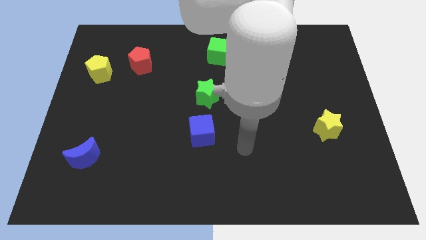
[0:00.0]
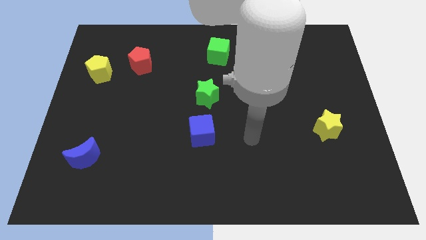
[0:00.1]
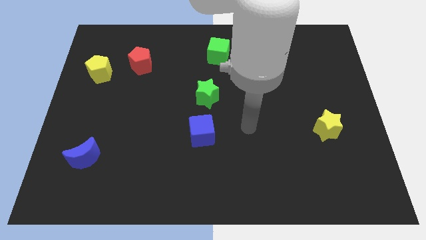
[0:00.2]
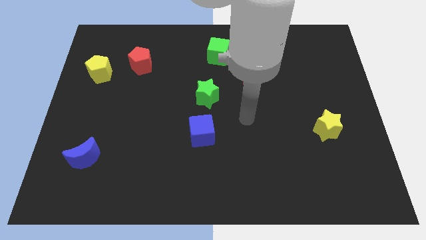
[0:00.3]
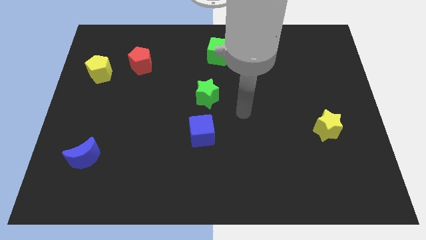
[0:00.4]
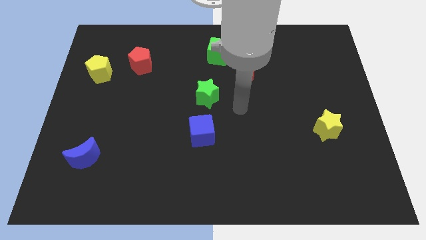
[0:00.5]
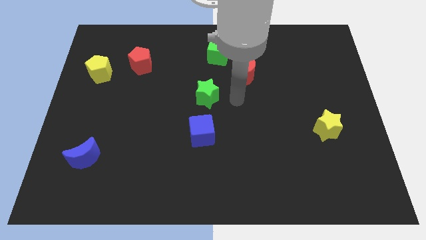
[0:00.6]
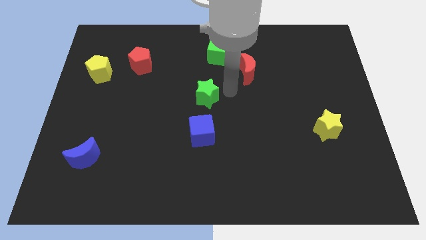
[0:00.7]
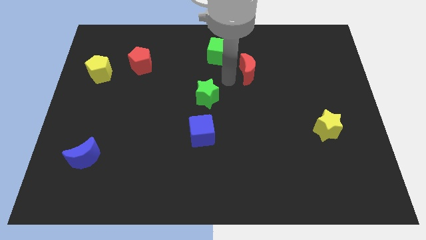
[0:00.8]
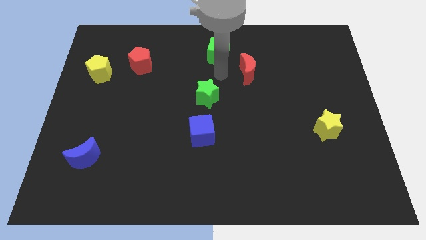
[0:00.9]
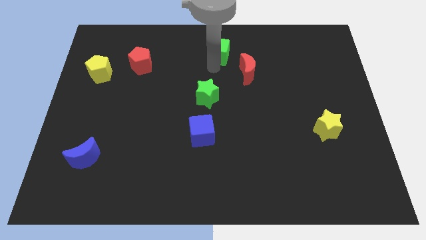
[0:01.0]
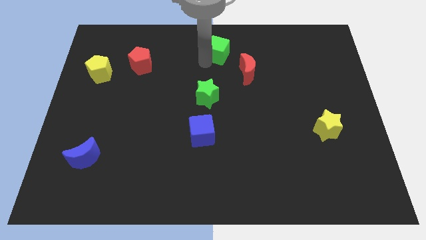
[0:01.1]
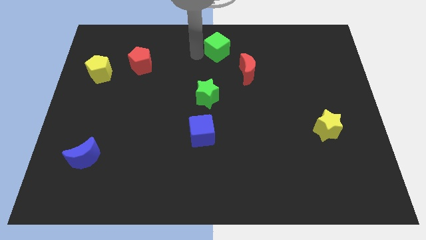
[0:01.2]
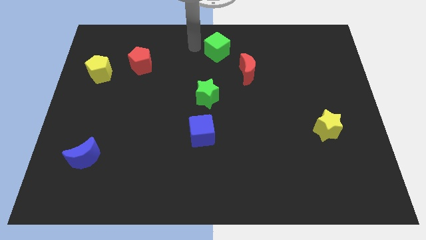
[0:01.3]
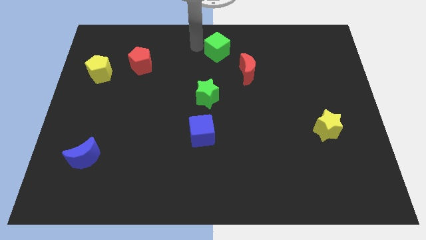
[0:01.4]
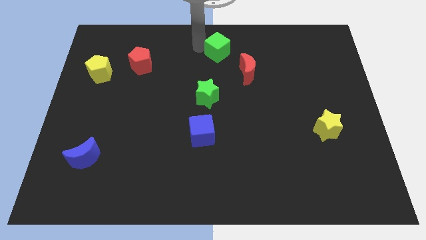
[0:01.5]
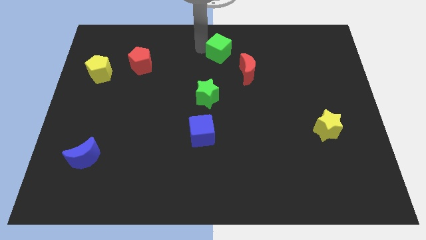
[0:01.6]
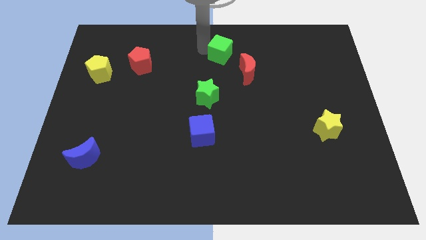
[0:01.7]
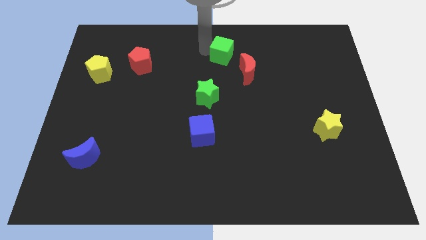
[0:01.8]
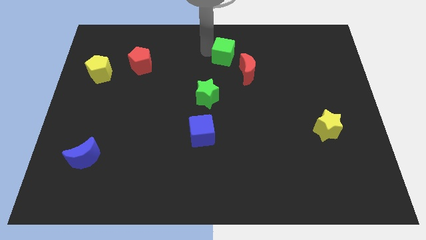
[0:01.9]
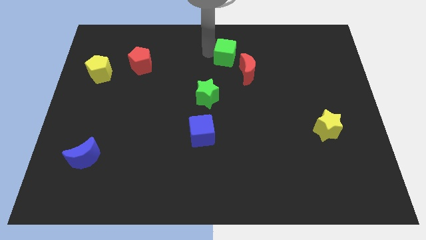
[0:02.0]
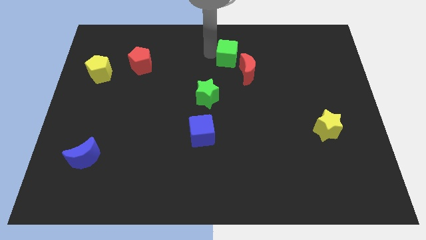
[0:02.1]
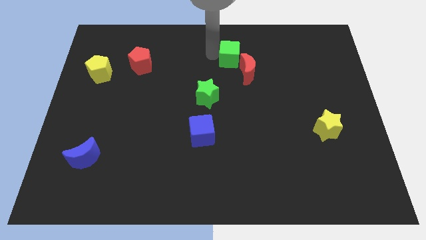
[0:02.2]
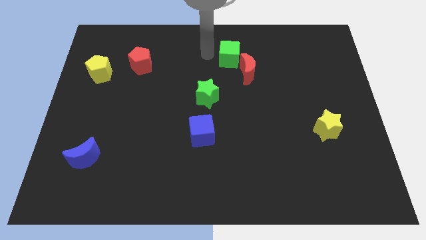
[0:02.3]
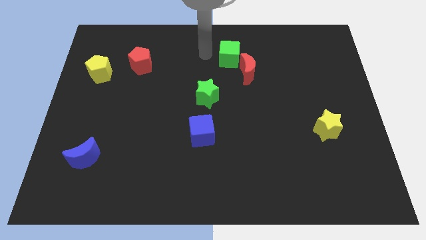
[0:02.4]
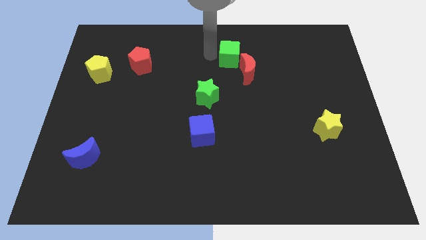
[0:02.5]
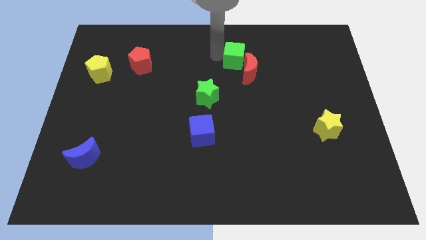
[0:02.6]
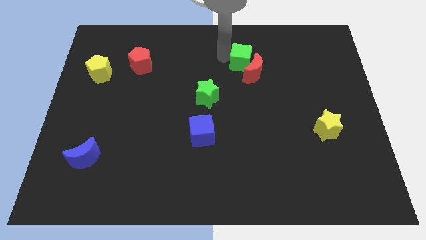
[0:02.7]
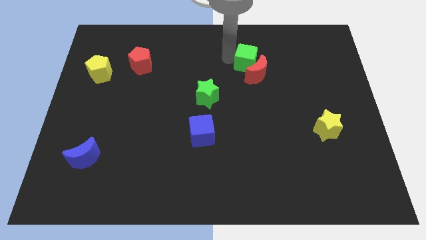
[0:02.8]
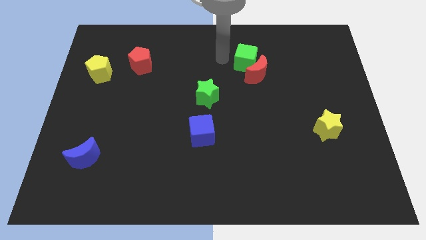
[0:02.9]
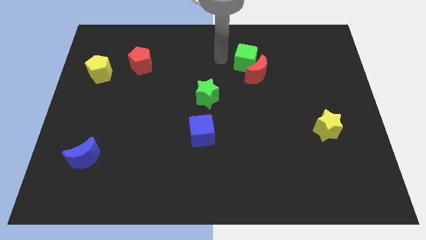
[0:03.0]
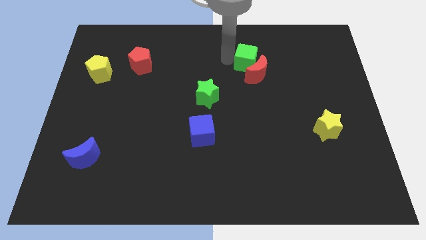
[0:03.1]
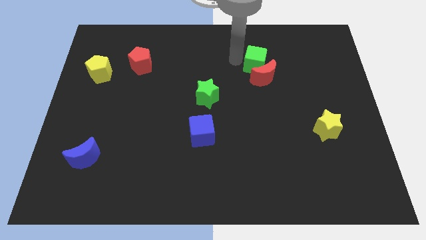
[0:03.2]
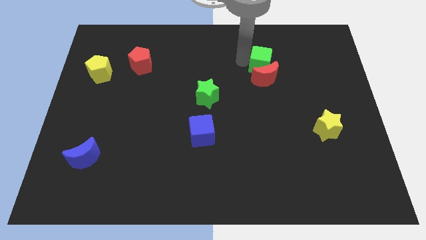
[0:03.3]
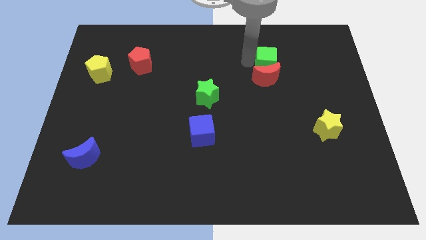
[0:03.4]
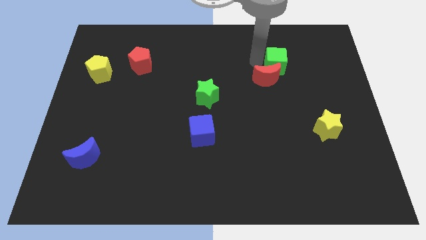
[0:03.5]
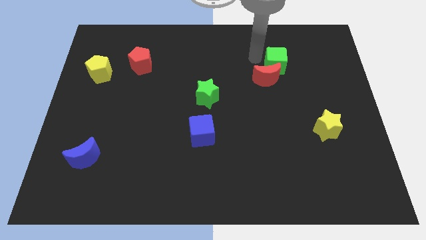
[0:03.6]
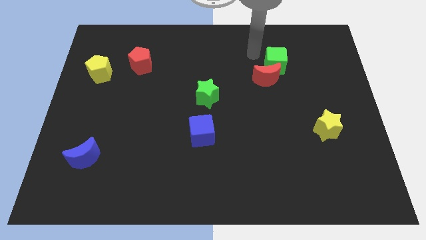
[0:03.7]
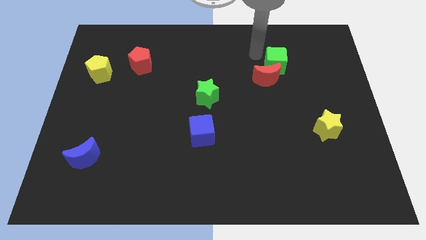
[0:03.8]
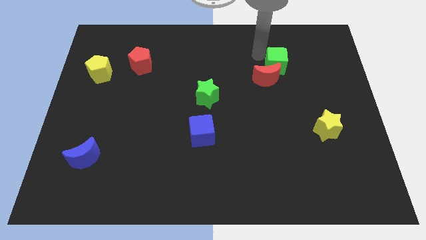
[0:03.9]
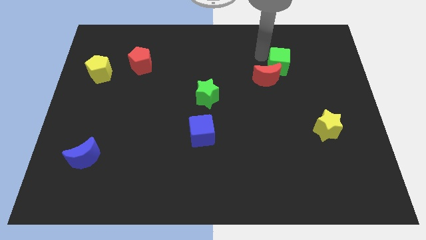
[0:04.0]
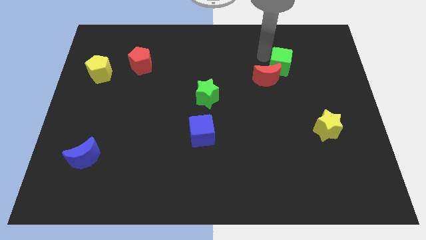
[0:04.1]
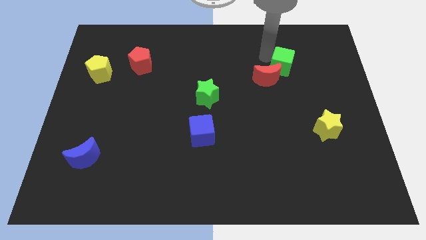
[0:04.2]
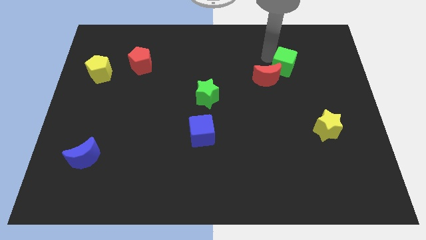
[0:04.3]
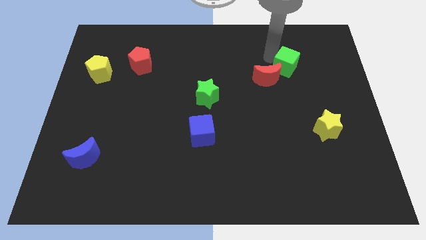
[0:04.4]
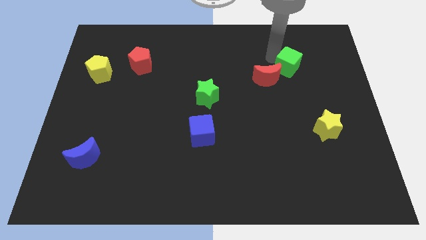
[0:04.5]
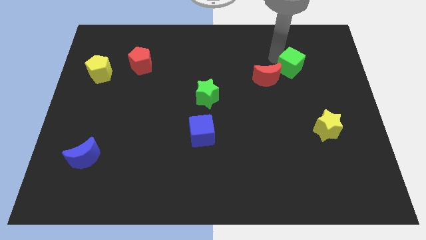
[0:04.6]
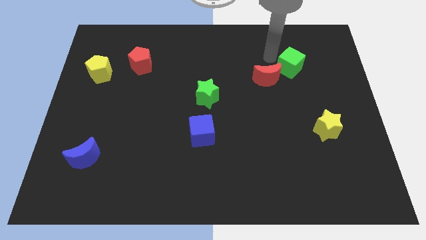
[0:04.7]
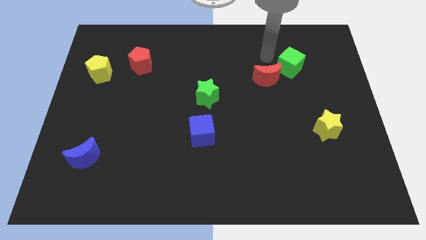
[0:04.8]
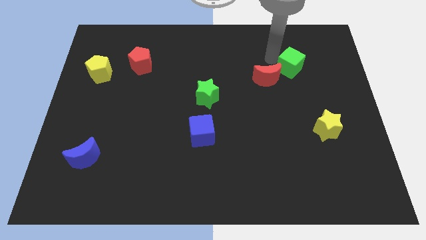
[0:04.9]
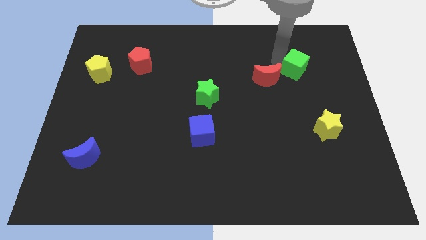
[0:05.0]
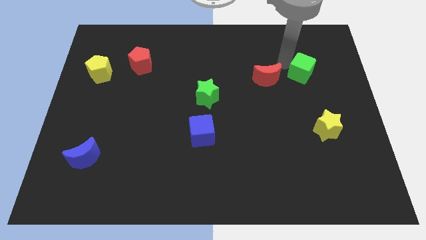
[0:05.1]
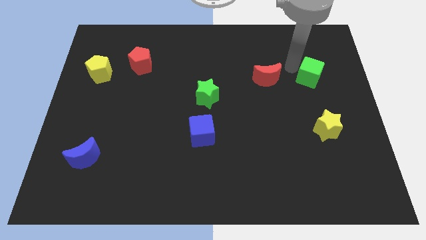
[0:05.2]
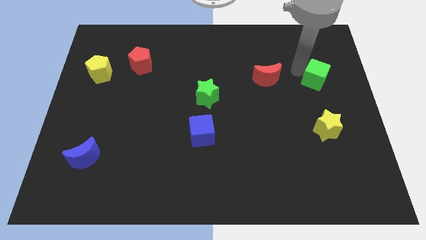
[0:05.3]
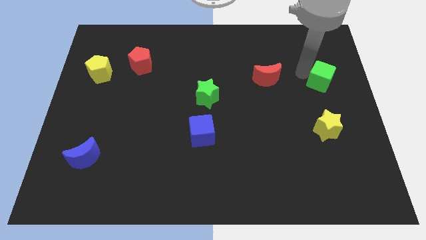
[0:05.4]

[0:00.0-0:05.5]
push the green cube to the right side of the board

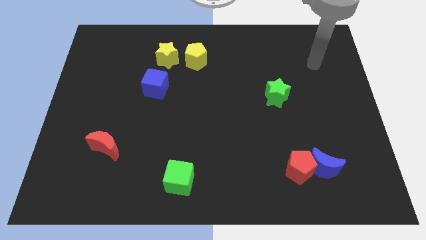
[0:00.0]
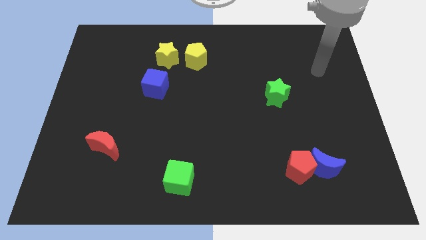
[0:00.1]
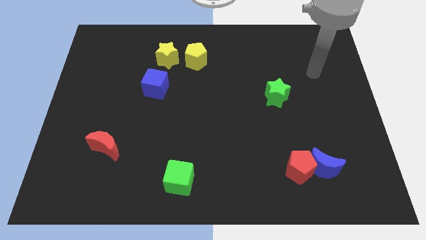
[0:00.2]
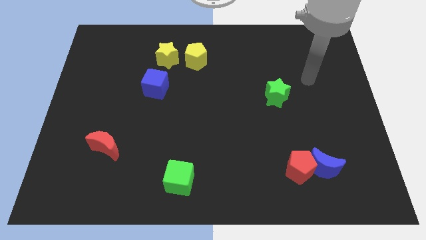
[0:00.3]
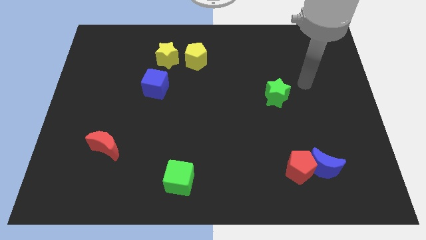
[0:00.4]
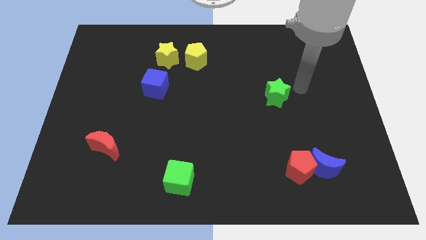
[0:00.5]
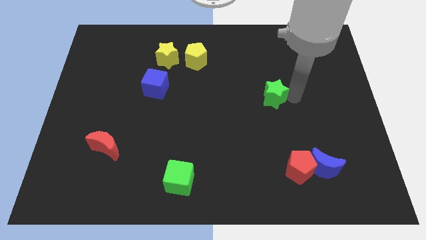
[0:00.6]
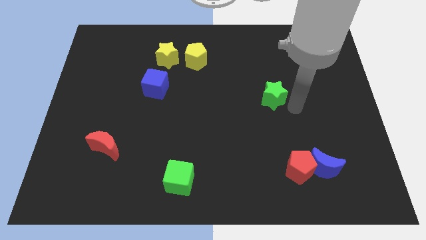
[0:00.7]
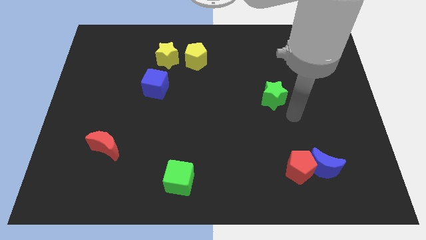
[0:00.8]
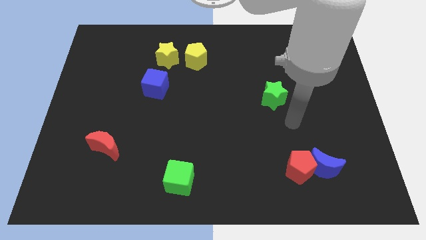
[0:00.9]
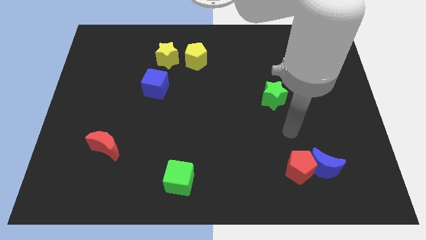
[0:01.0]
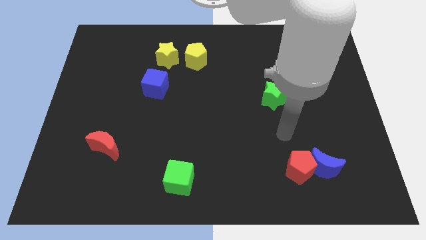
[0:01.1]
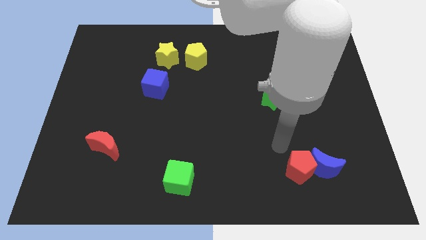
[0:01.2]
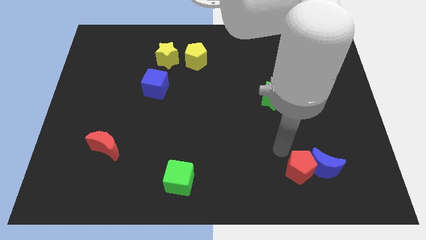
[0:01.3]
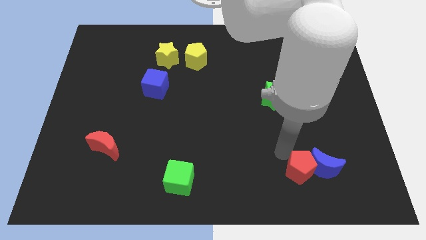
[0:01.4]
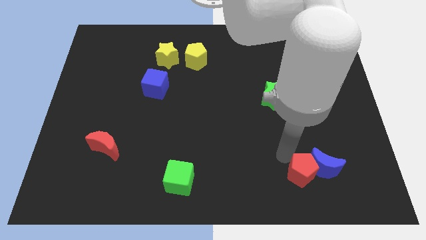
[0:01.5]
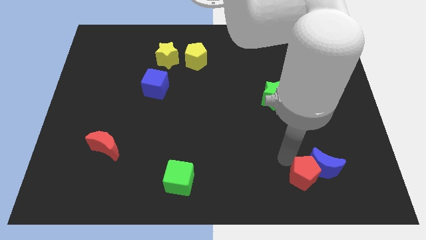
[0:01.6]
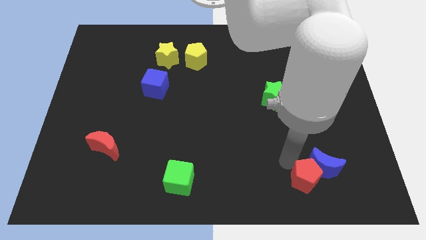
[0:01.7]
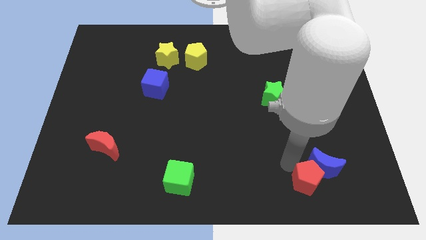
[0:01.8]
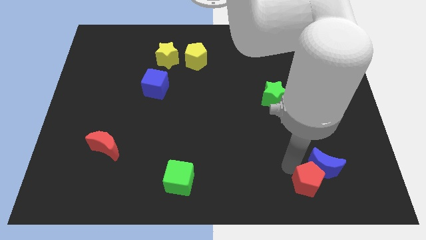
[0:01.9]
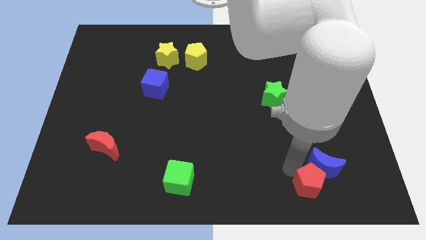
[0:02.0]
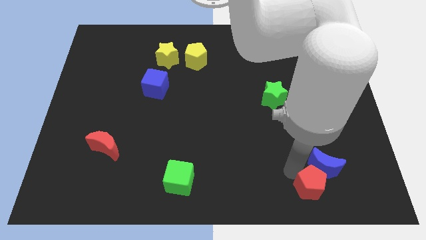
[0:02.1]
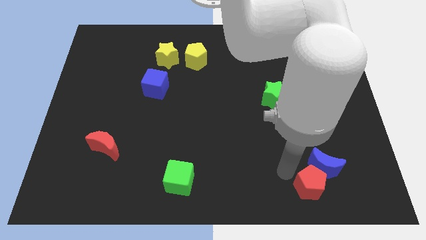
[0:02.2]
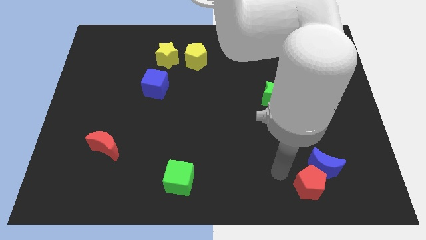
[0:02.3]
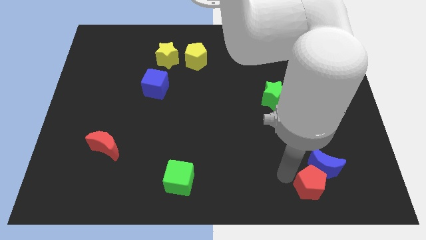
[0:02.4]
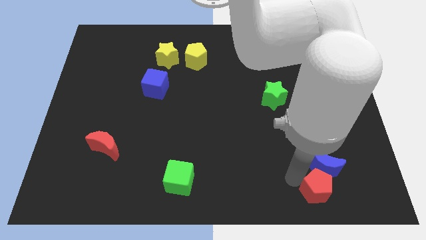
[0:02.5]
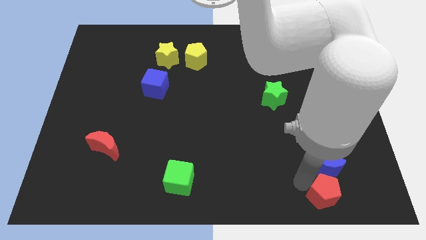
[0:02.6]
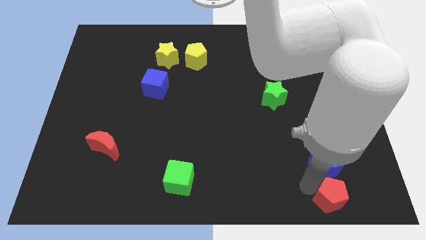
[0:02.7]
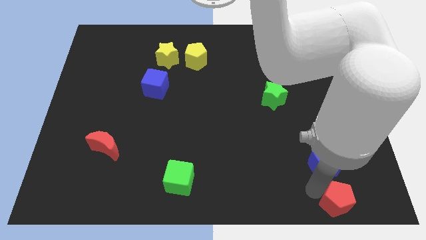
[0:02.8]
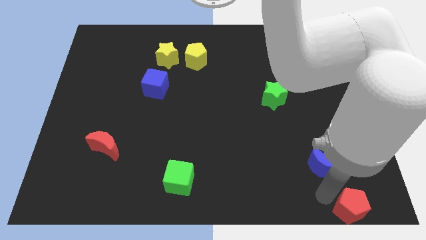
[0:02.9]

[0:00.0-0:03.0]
move the red pentagon to the bottom right corner
